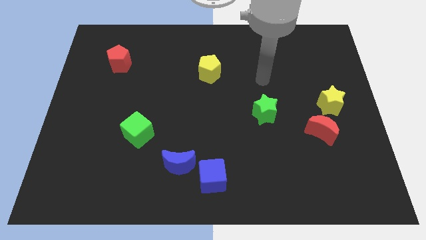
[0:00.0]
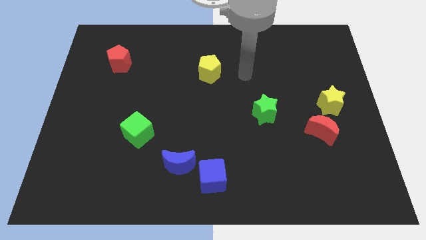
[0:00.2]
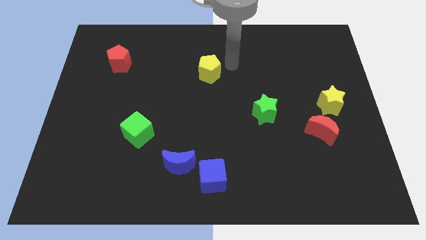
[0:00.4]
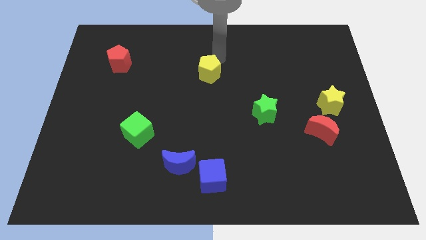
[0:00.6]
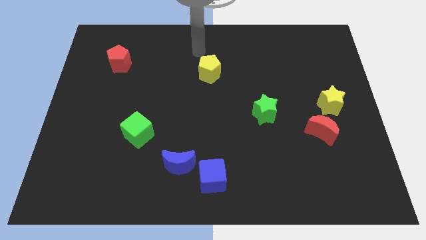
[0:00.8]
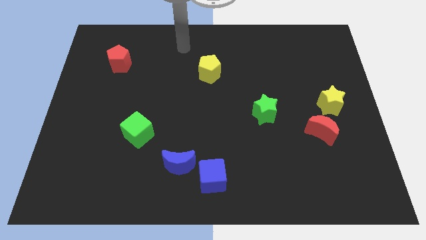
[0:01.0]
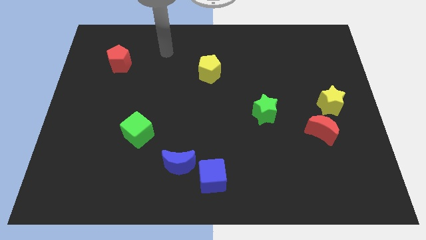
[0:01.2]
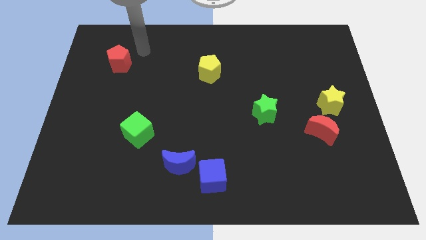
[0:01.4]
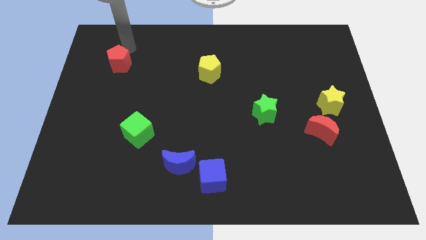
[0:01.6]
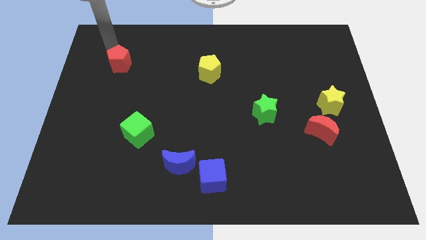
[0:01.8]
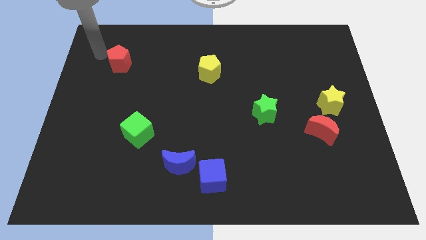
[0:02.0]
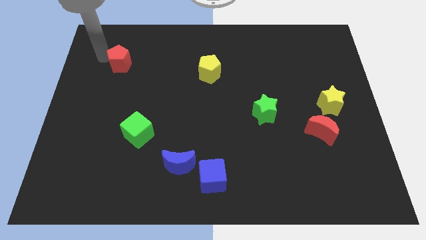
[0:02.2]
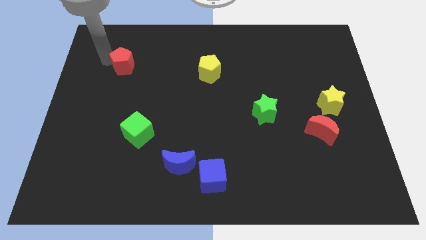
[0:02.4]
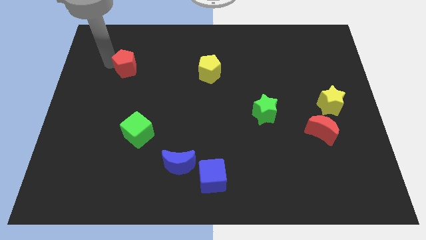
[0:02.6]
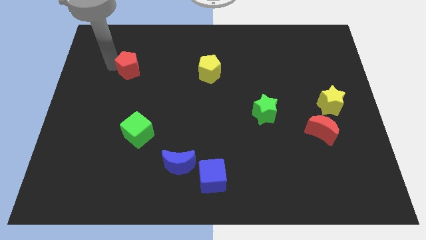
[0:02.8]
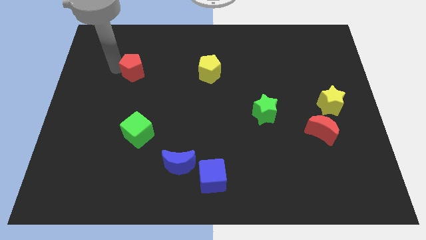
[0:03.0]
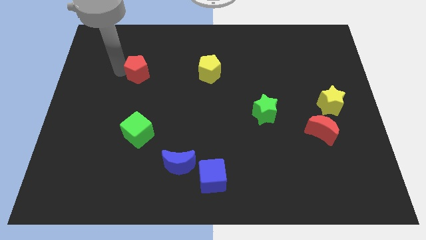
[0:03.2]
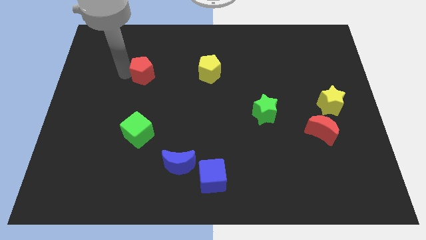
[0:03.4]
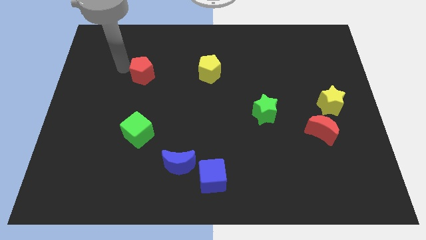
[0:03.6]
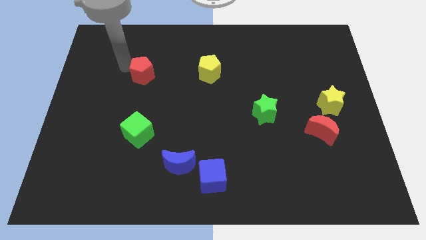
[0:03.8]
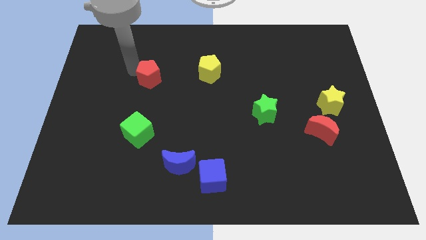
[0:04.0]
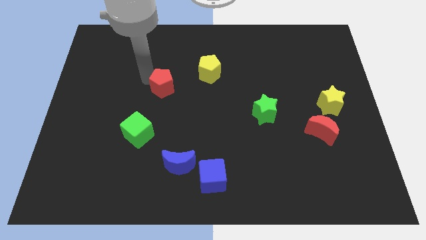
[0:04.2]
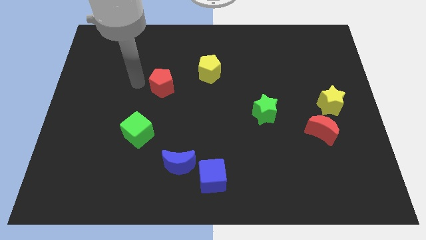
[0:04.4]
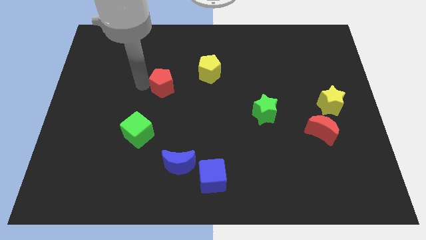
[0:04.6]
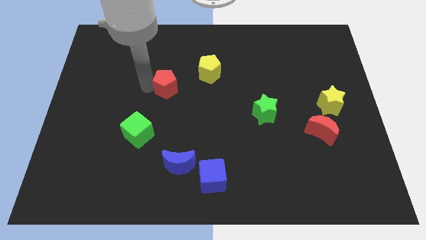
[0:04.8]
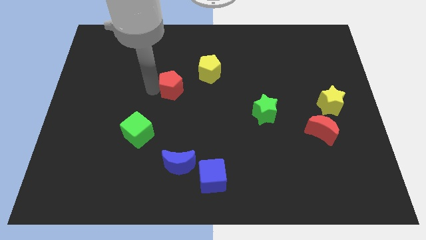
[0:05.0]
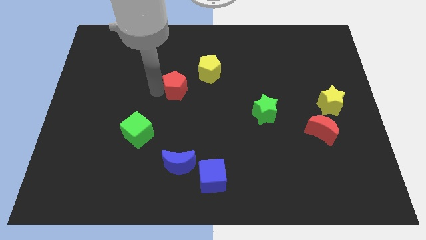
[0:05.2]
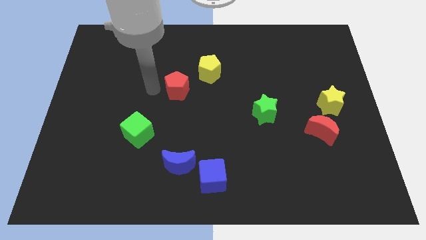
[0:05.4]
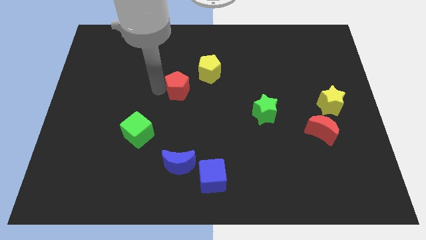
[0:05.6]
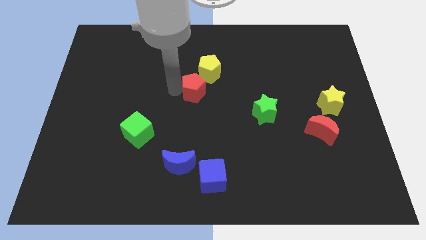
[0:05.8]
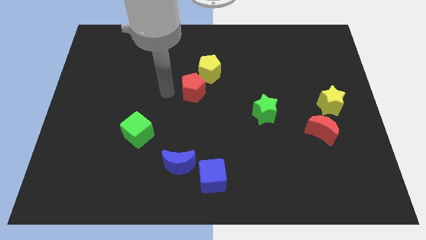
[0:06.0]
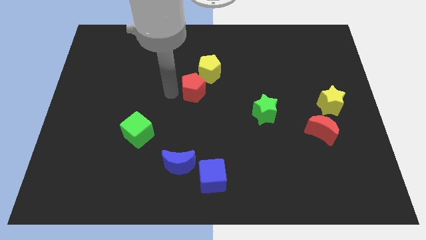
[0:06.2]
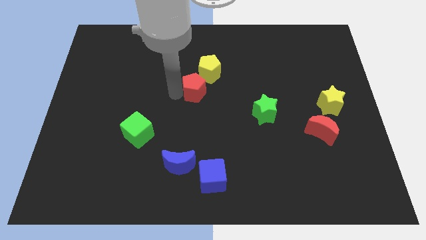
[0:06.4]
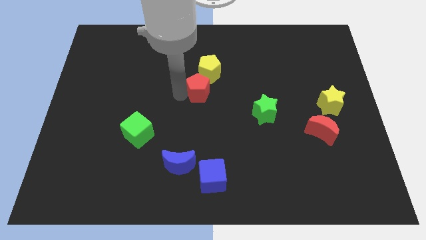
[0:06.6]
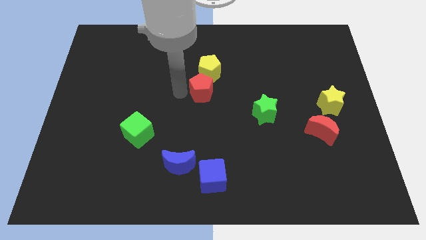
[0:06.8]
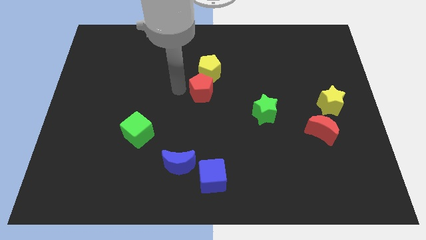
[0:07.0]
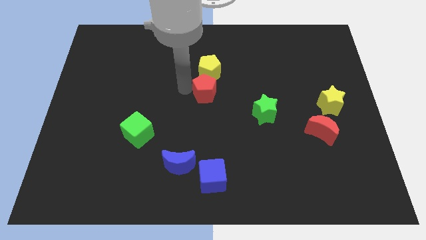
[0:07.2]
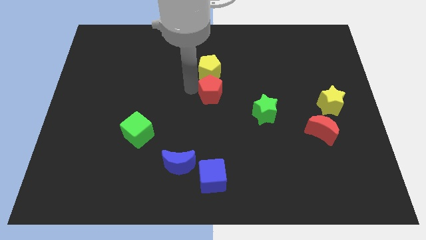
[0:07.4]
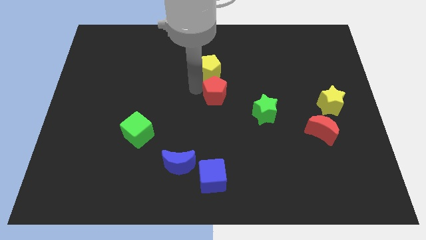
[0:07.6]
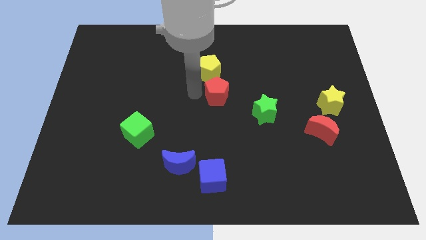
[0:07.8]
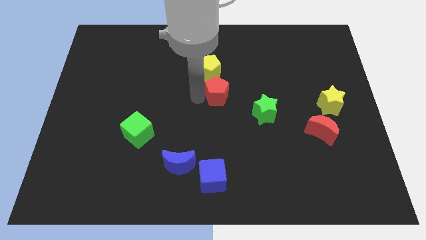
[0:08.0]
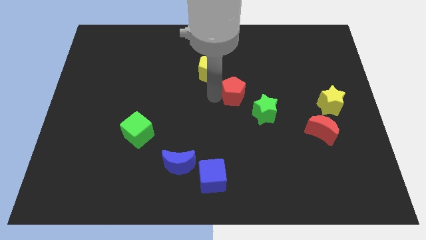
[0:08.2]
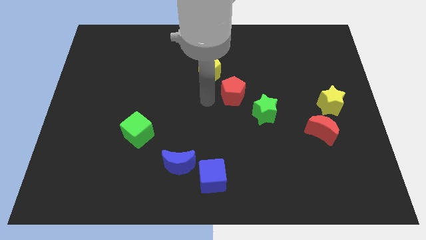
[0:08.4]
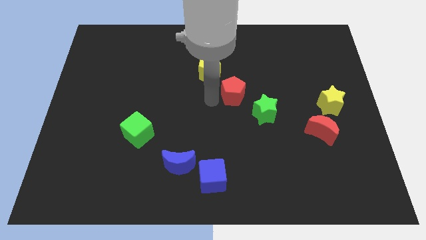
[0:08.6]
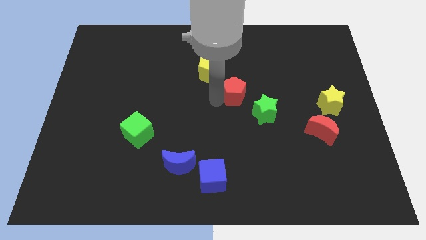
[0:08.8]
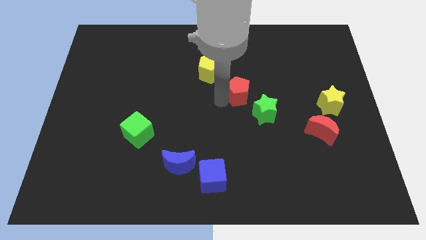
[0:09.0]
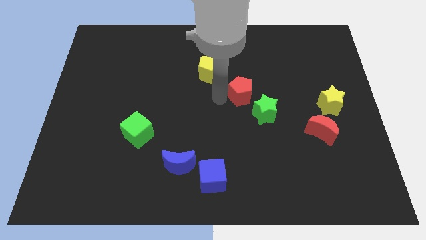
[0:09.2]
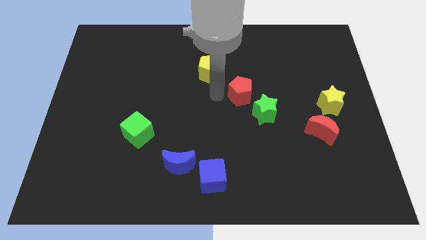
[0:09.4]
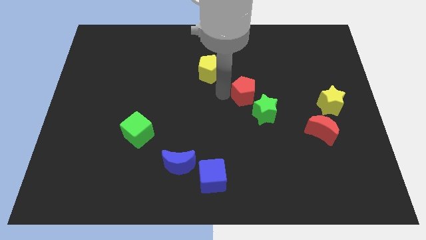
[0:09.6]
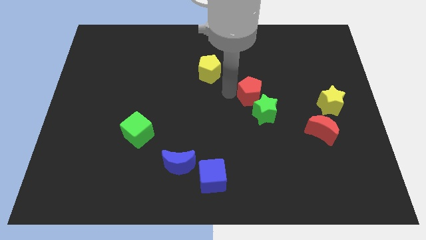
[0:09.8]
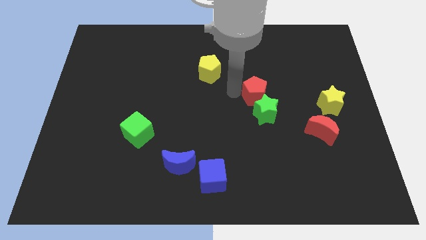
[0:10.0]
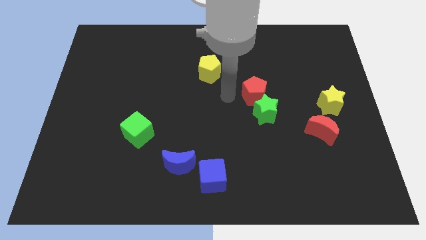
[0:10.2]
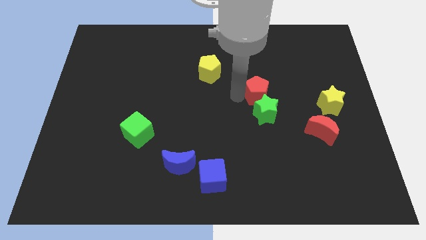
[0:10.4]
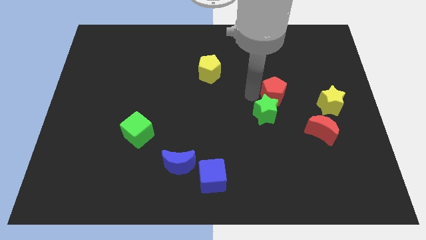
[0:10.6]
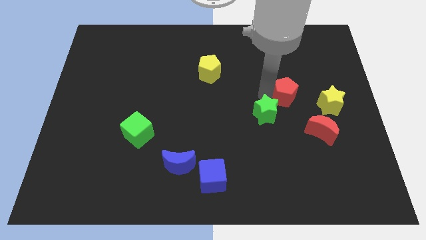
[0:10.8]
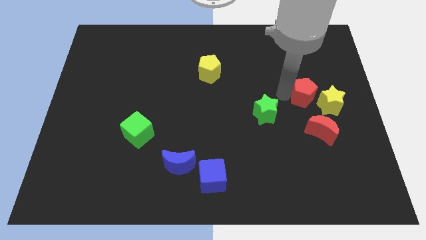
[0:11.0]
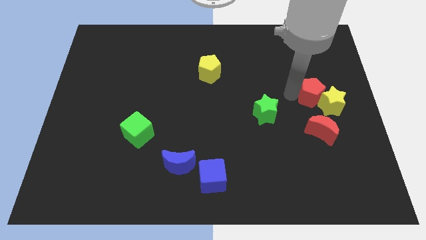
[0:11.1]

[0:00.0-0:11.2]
put the red pentagon close to the yellow star

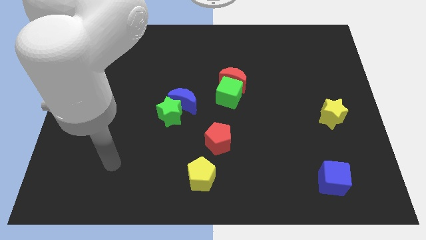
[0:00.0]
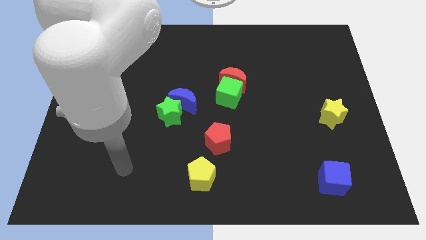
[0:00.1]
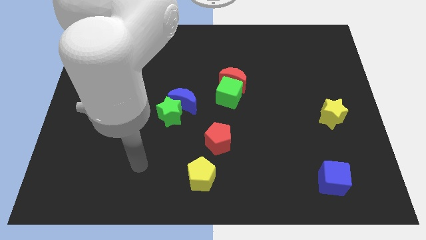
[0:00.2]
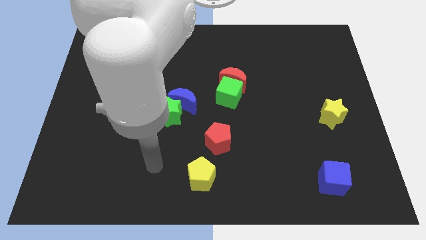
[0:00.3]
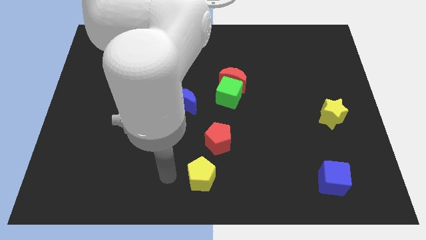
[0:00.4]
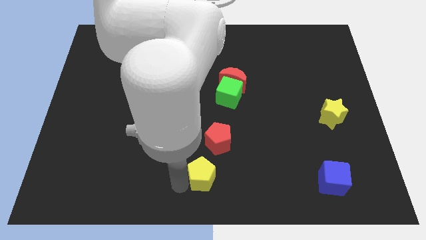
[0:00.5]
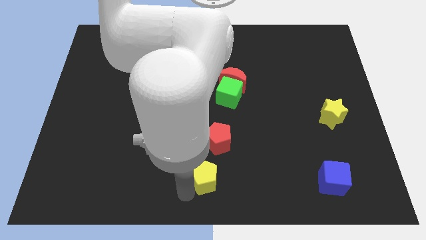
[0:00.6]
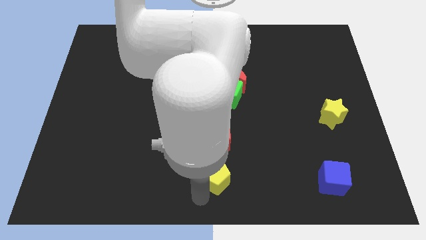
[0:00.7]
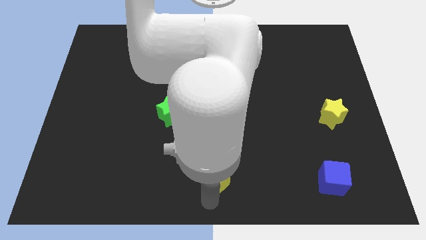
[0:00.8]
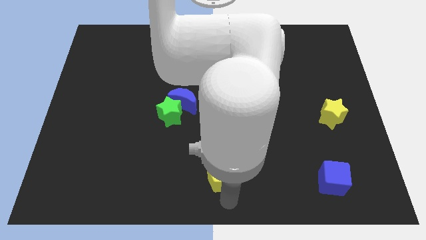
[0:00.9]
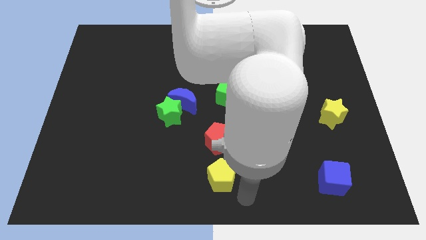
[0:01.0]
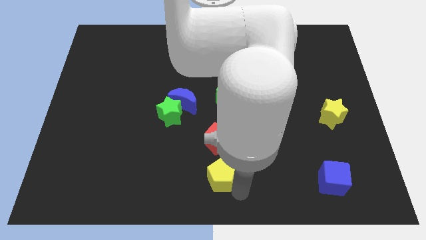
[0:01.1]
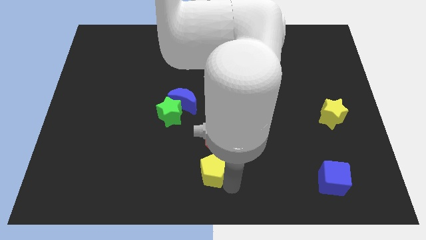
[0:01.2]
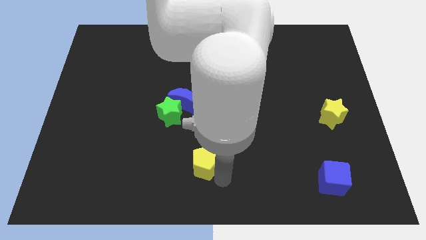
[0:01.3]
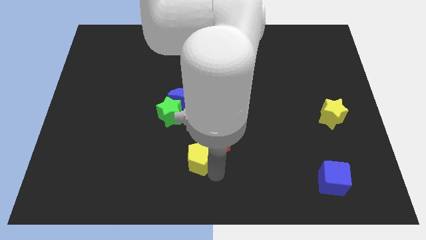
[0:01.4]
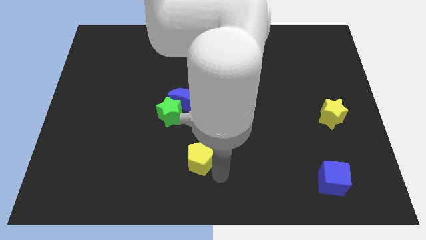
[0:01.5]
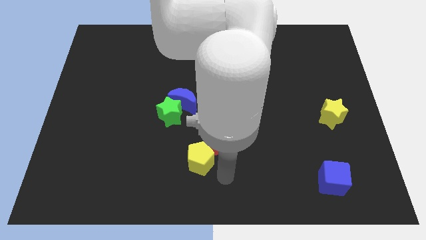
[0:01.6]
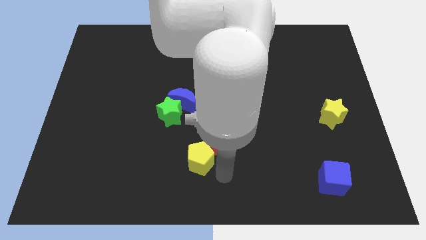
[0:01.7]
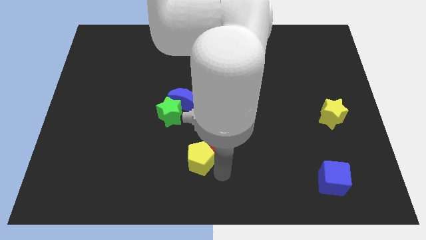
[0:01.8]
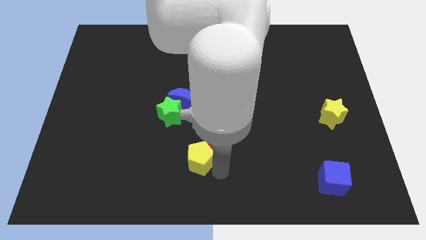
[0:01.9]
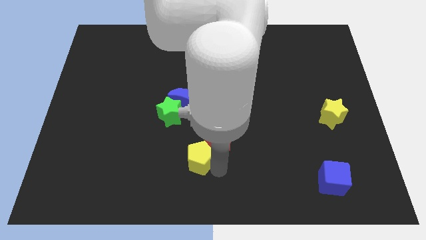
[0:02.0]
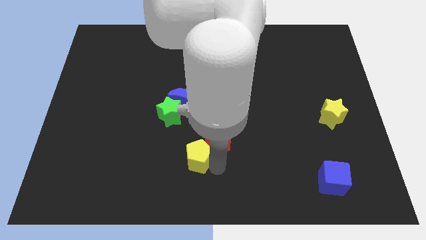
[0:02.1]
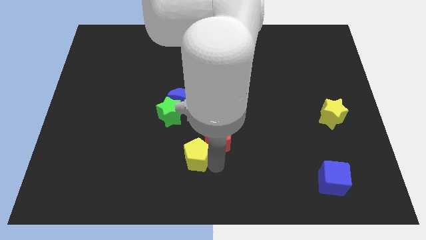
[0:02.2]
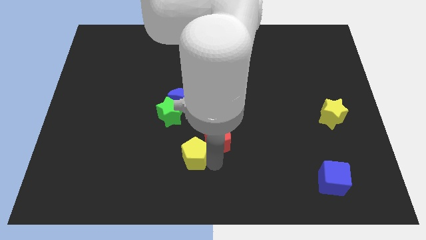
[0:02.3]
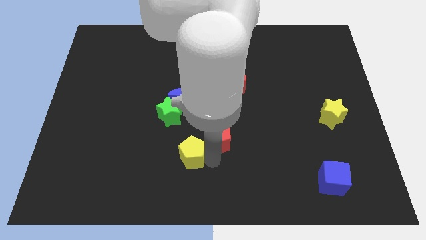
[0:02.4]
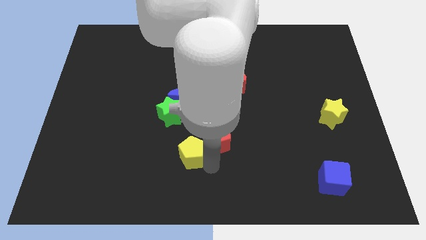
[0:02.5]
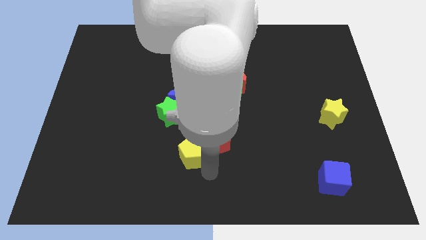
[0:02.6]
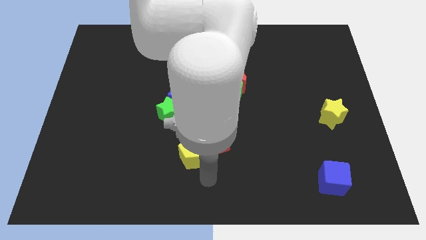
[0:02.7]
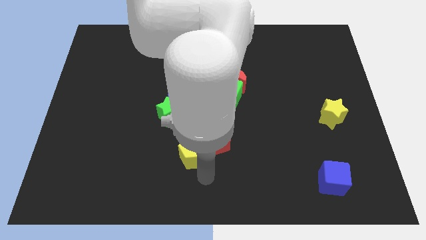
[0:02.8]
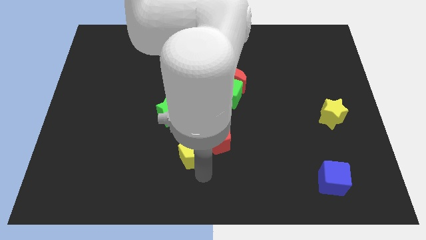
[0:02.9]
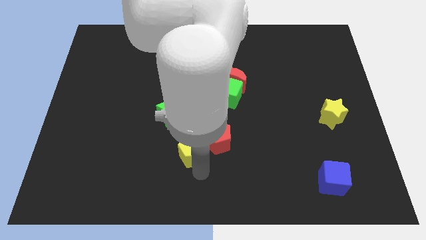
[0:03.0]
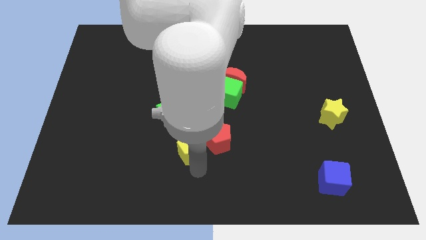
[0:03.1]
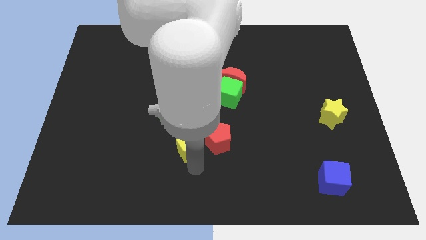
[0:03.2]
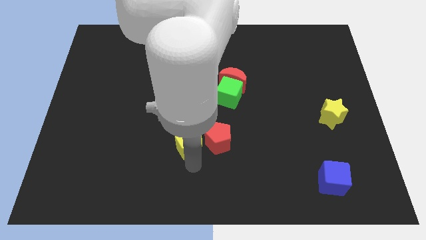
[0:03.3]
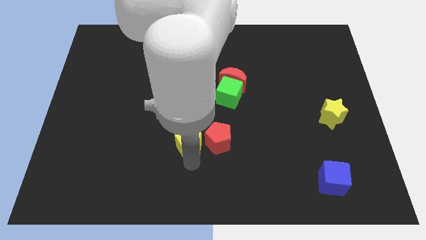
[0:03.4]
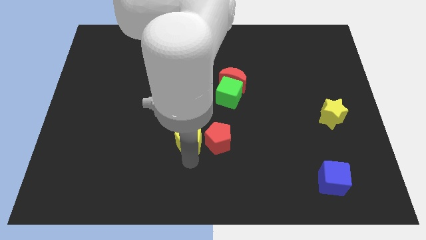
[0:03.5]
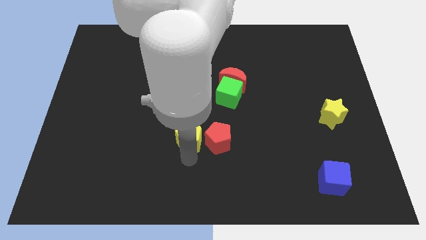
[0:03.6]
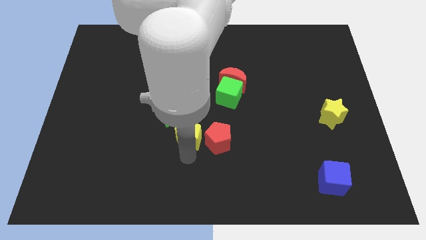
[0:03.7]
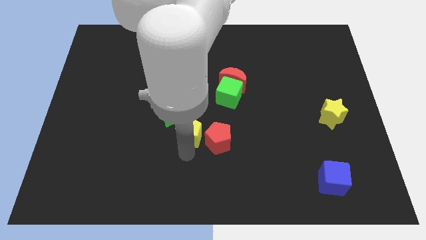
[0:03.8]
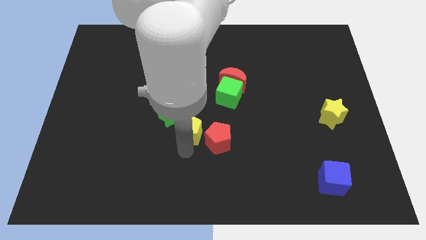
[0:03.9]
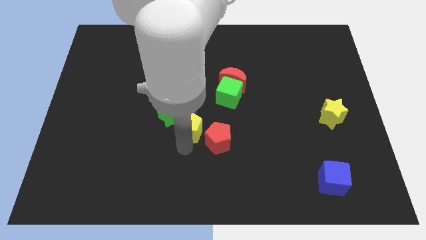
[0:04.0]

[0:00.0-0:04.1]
move the yellow pentagon close to the green star
